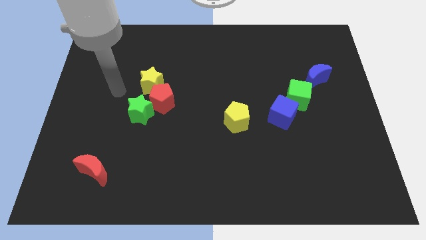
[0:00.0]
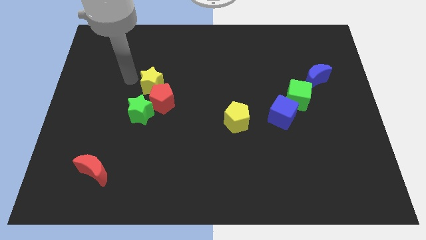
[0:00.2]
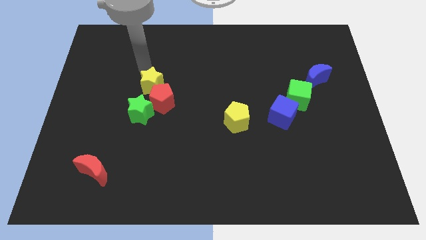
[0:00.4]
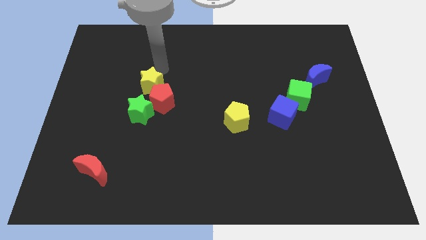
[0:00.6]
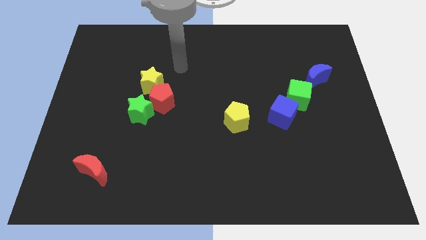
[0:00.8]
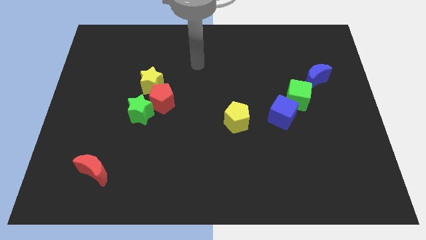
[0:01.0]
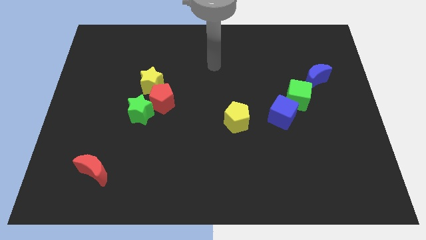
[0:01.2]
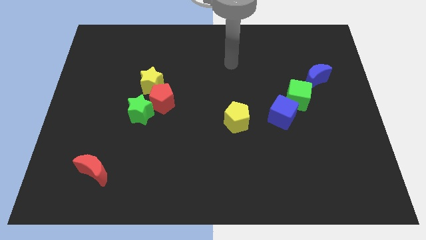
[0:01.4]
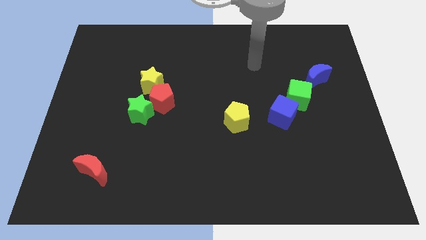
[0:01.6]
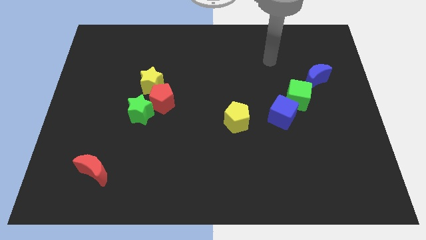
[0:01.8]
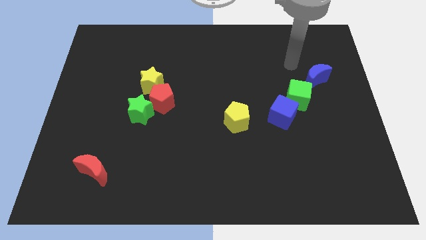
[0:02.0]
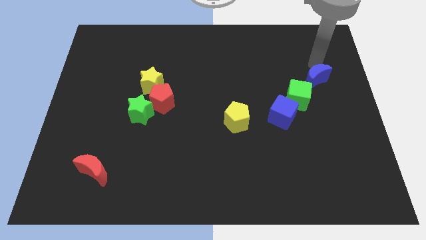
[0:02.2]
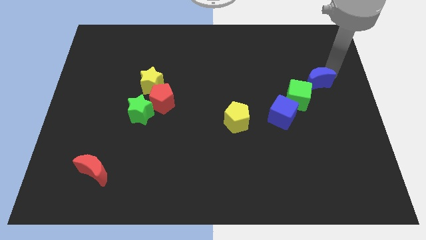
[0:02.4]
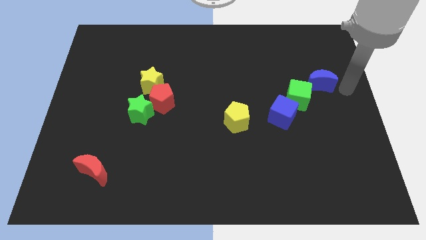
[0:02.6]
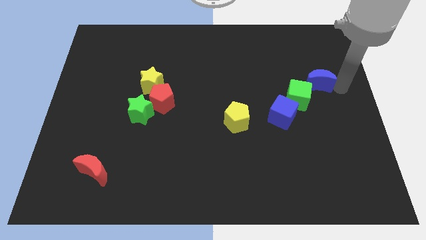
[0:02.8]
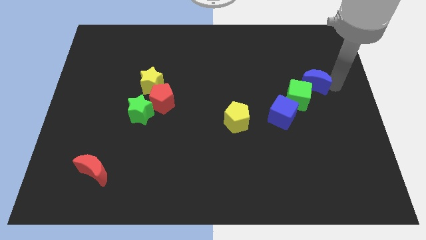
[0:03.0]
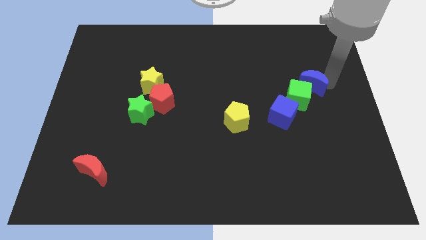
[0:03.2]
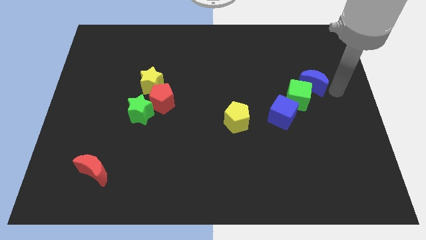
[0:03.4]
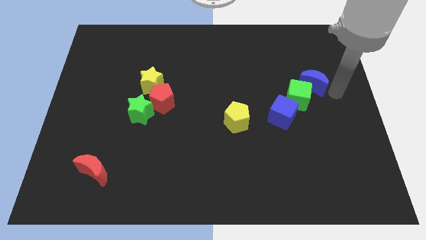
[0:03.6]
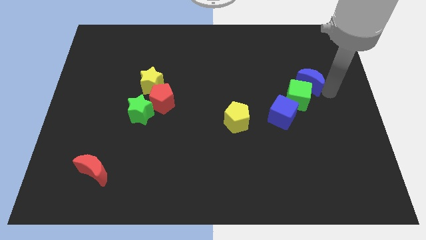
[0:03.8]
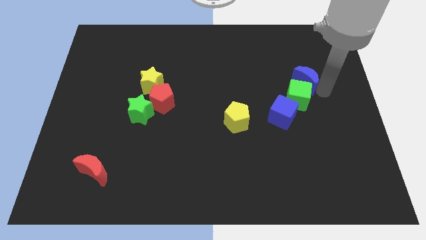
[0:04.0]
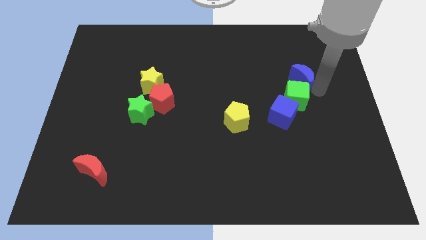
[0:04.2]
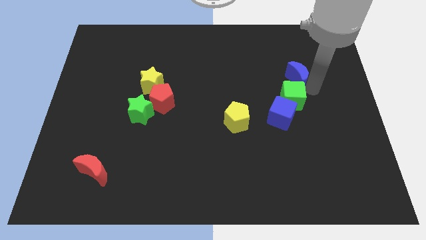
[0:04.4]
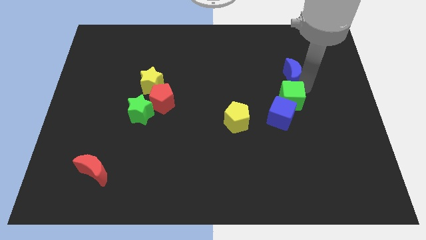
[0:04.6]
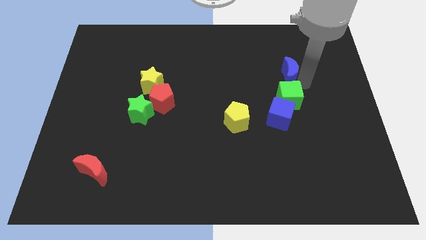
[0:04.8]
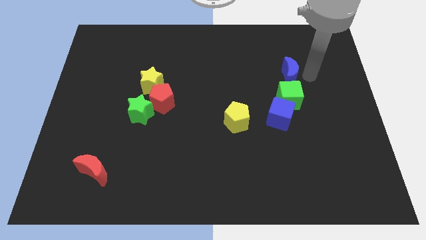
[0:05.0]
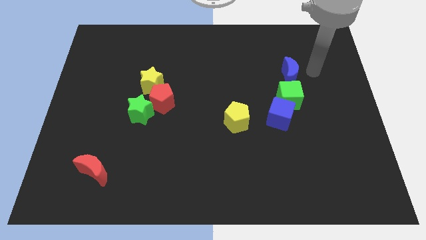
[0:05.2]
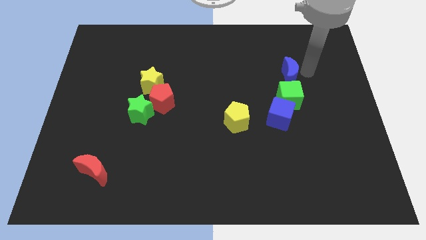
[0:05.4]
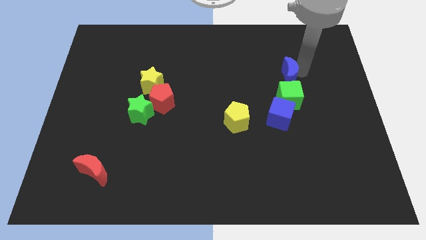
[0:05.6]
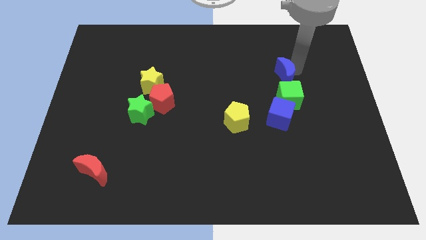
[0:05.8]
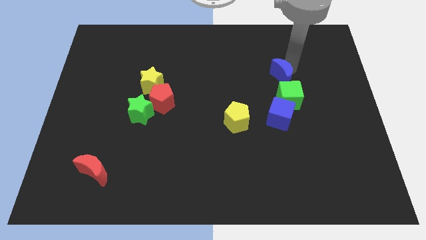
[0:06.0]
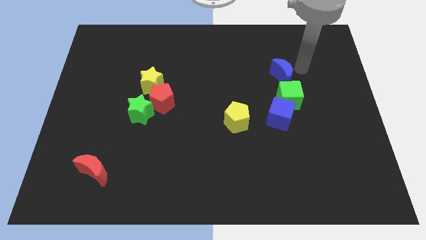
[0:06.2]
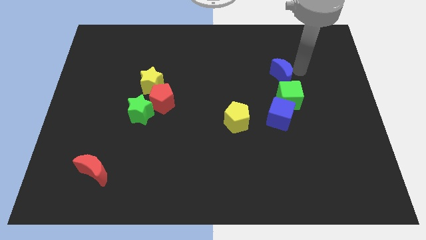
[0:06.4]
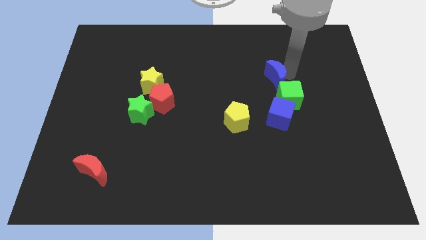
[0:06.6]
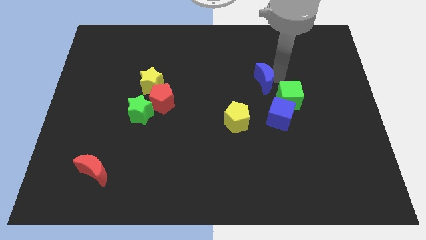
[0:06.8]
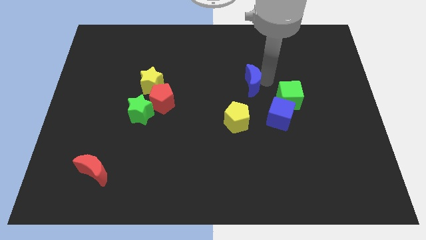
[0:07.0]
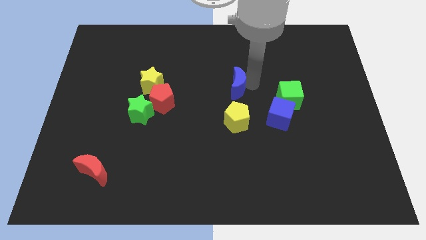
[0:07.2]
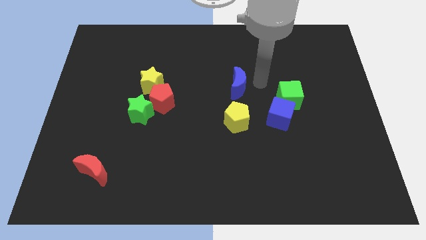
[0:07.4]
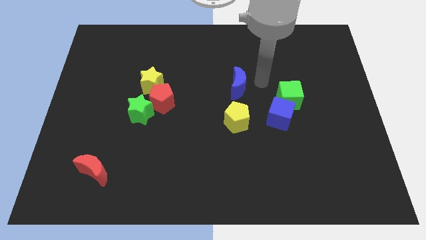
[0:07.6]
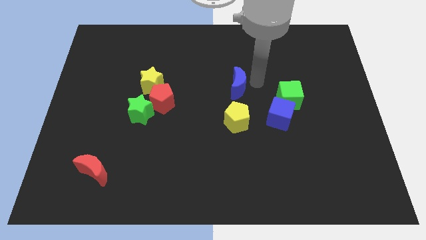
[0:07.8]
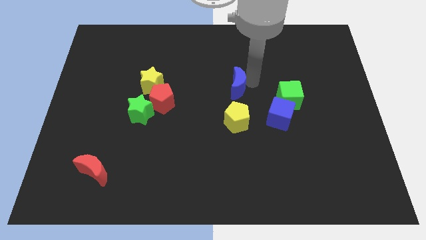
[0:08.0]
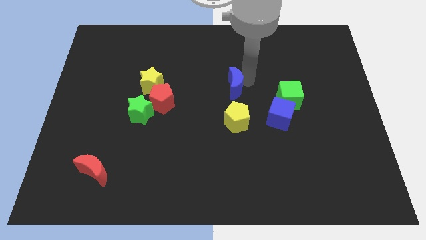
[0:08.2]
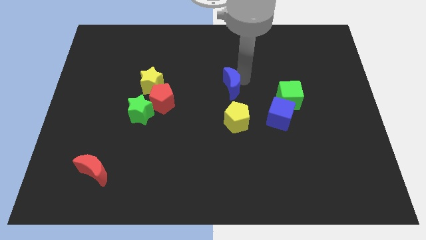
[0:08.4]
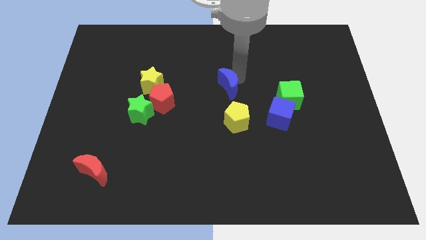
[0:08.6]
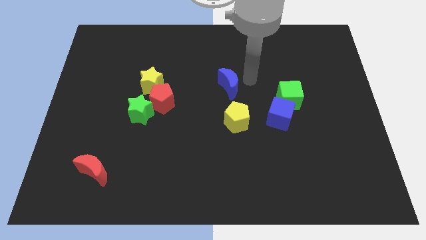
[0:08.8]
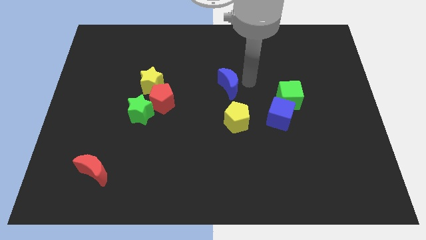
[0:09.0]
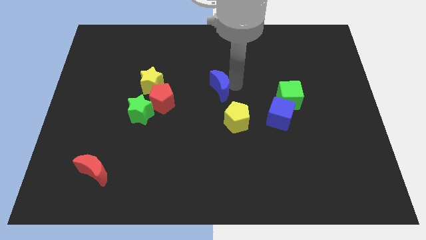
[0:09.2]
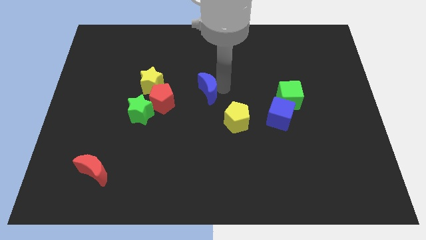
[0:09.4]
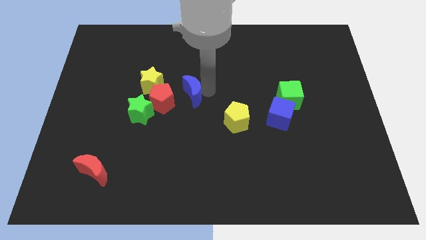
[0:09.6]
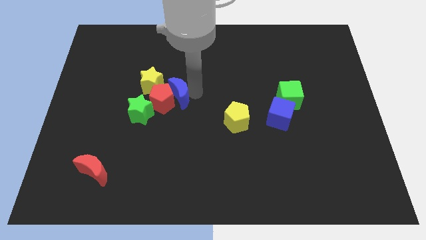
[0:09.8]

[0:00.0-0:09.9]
move the blue moon towards the red pentagon

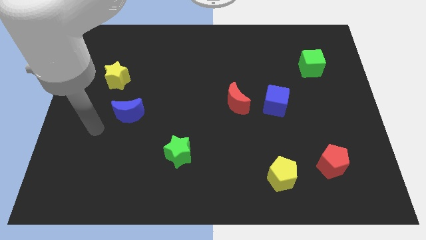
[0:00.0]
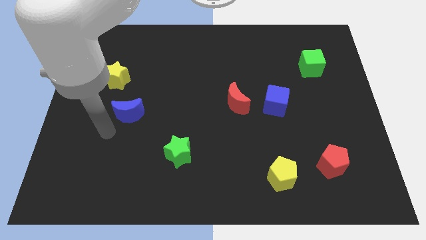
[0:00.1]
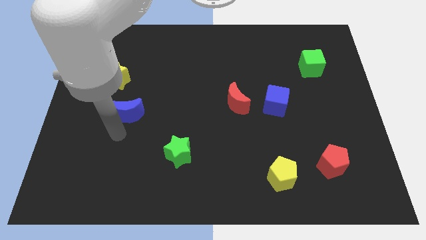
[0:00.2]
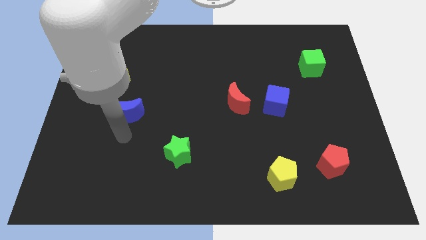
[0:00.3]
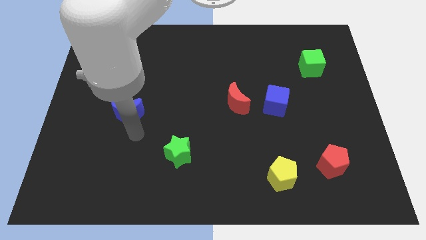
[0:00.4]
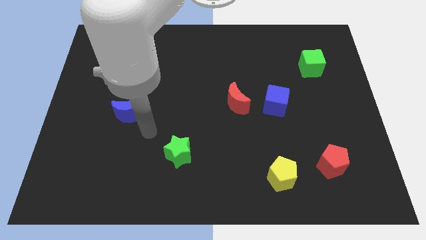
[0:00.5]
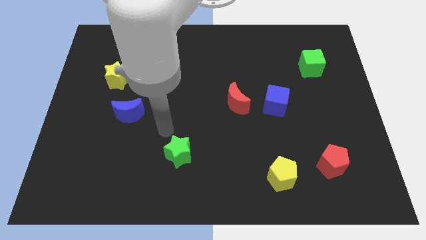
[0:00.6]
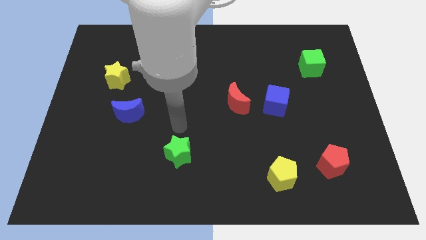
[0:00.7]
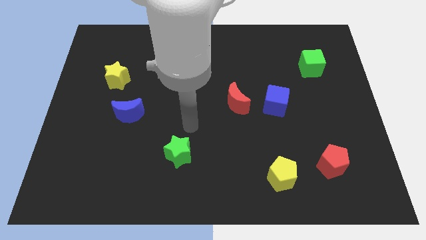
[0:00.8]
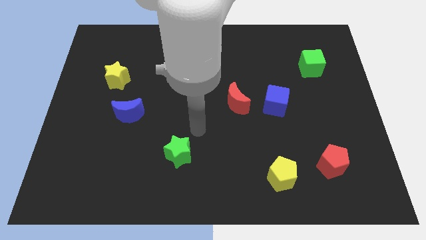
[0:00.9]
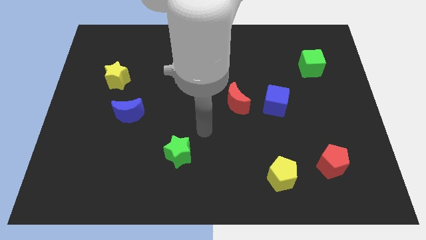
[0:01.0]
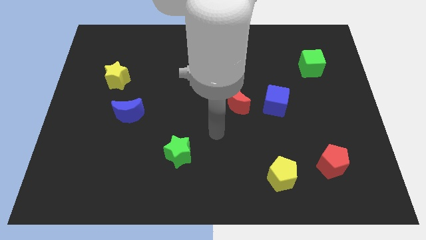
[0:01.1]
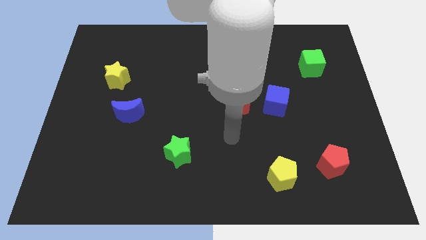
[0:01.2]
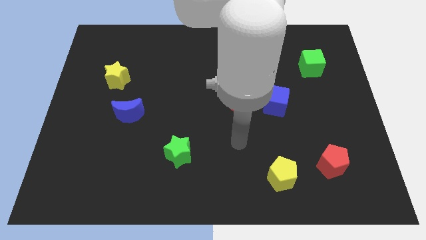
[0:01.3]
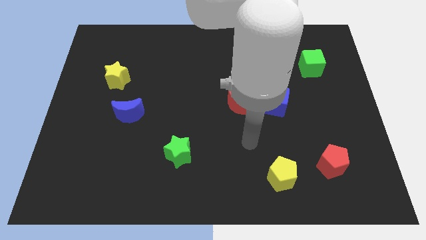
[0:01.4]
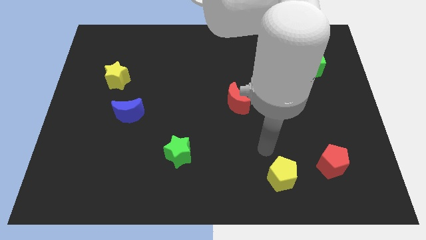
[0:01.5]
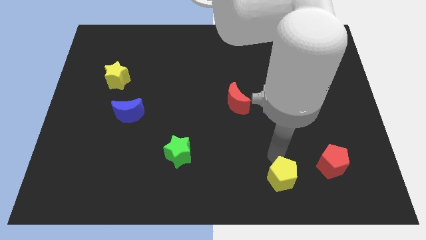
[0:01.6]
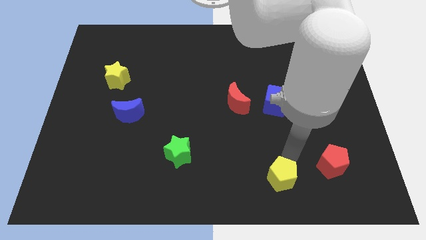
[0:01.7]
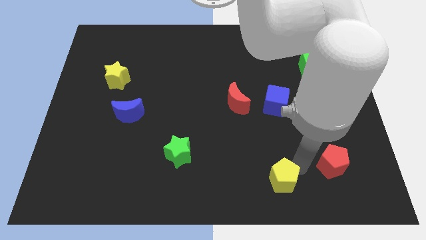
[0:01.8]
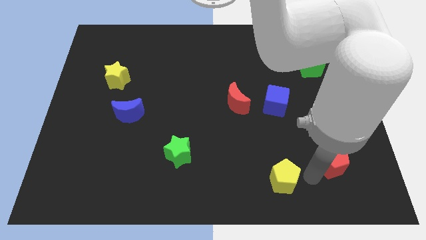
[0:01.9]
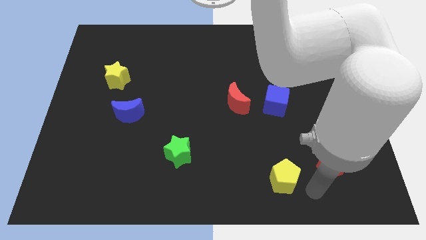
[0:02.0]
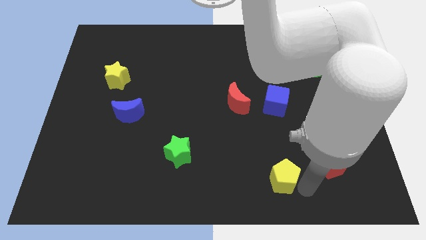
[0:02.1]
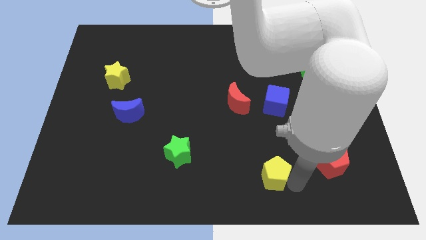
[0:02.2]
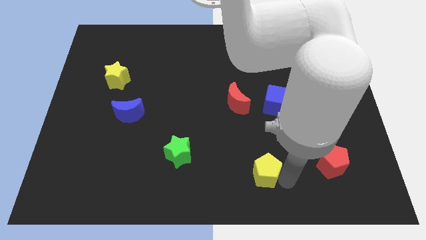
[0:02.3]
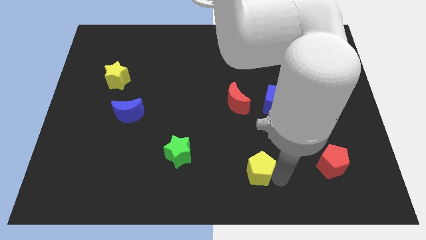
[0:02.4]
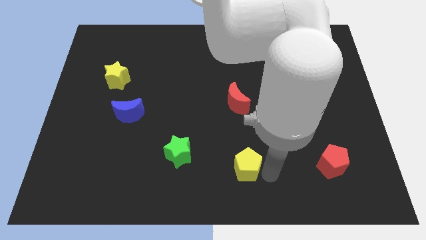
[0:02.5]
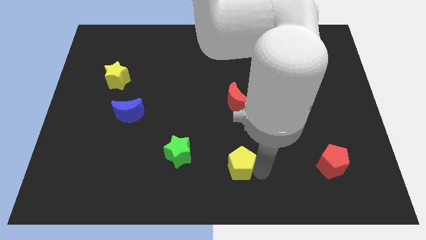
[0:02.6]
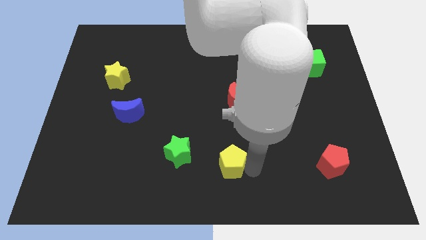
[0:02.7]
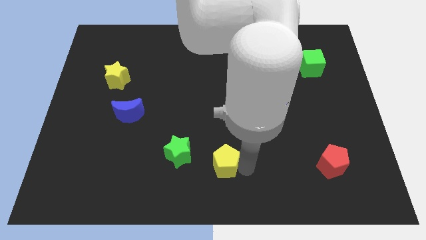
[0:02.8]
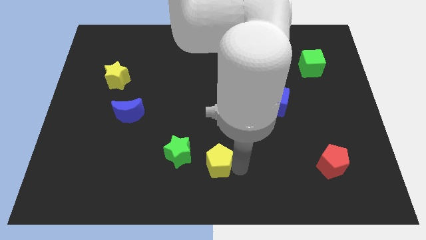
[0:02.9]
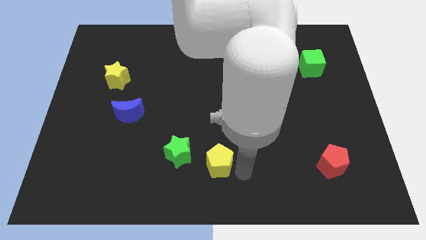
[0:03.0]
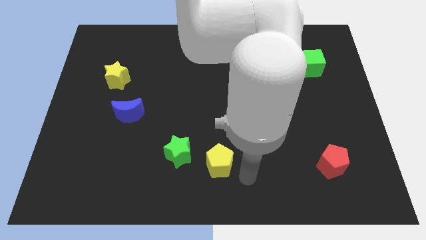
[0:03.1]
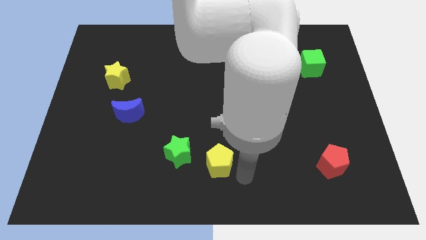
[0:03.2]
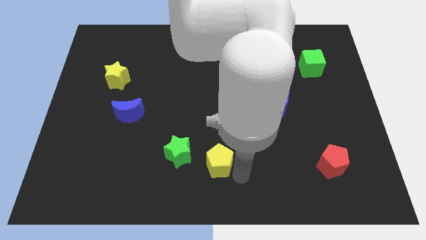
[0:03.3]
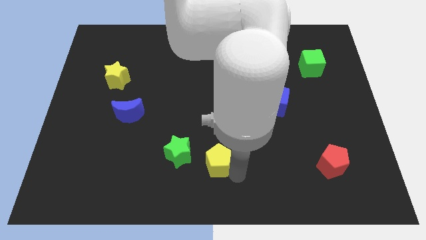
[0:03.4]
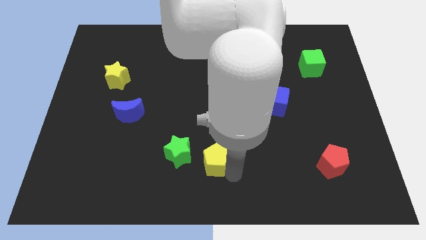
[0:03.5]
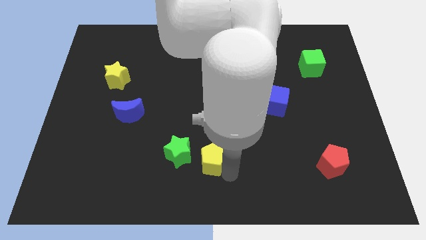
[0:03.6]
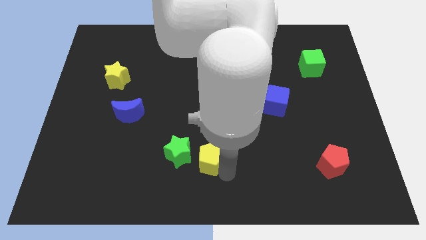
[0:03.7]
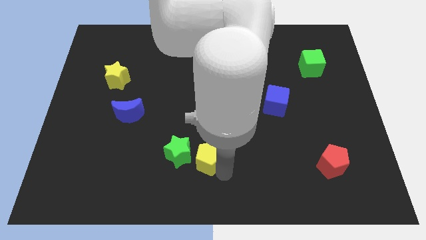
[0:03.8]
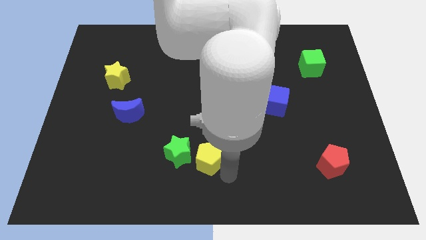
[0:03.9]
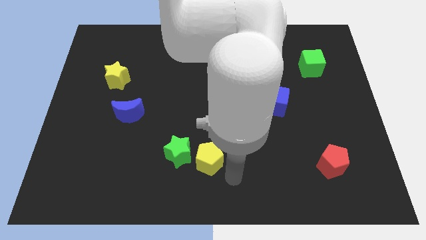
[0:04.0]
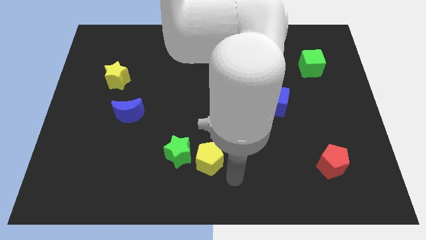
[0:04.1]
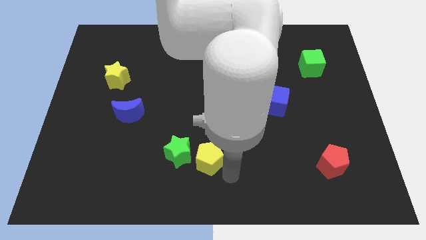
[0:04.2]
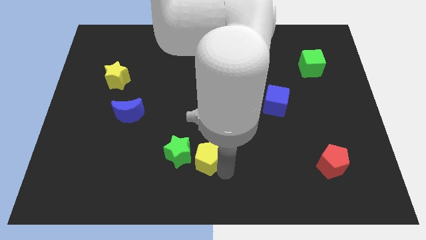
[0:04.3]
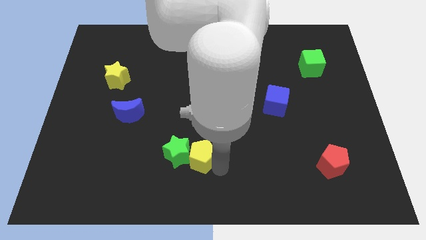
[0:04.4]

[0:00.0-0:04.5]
slide the yellow pentagon close to the green star
